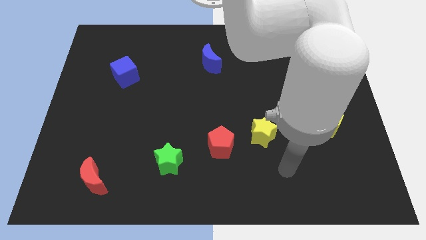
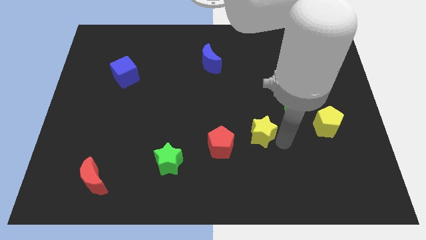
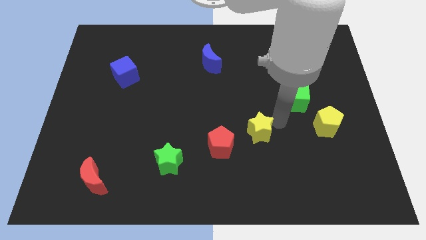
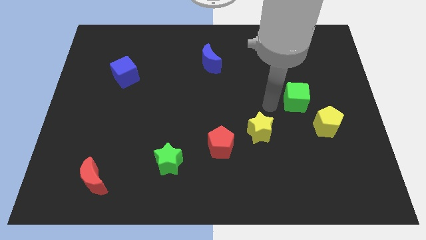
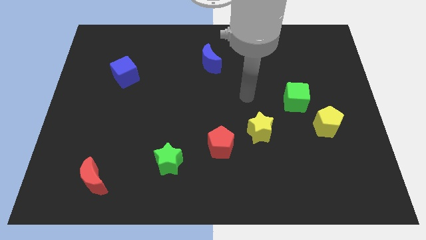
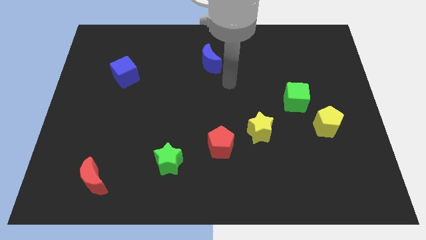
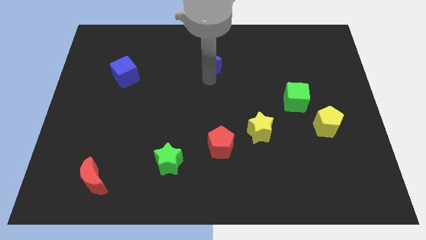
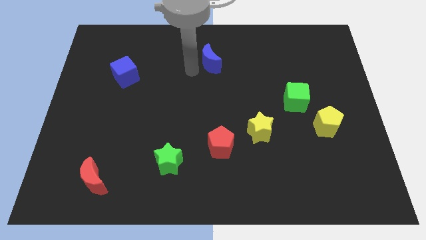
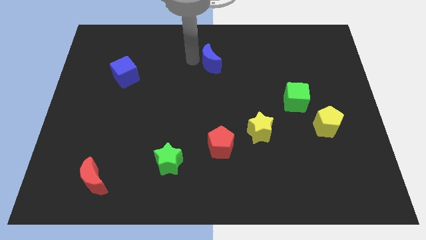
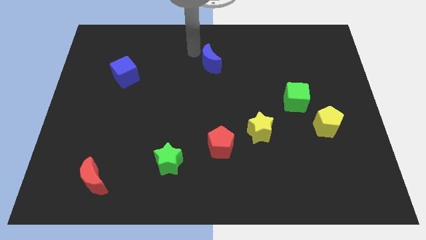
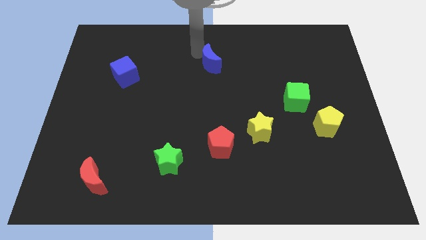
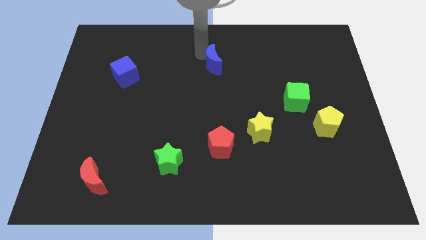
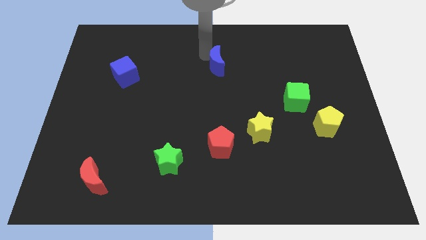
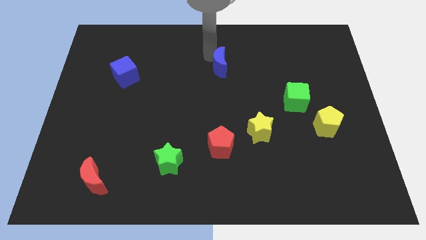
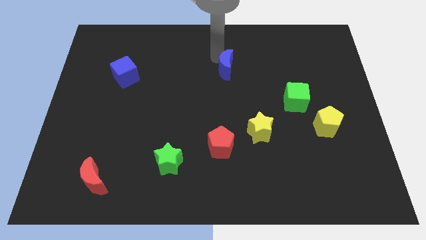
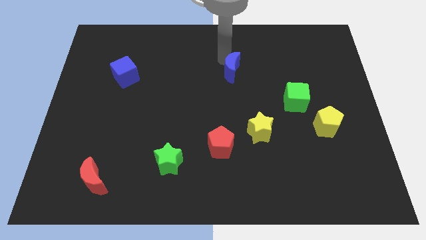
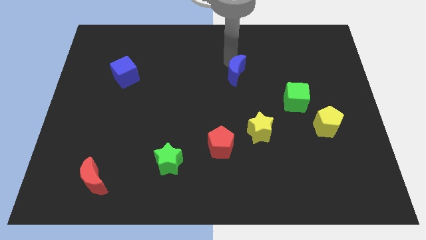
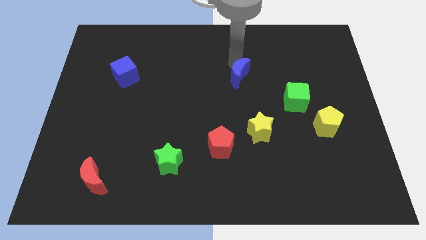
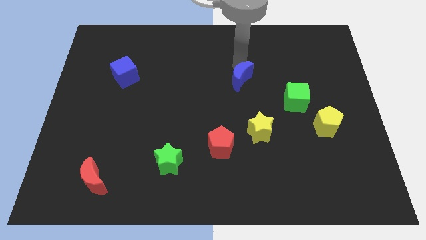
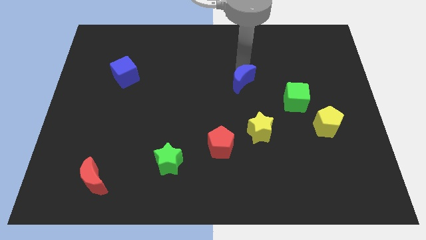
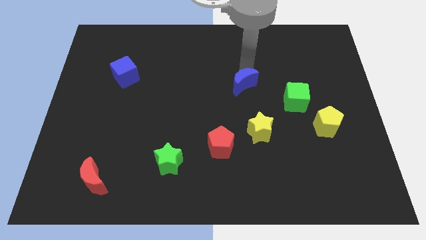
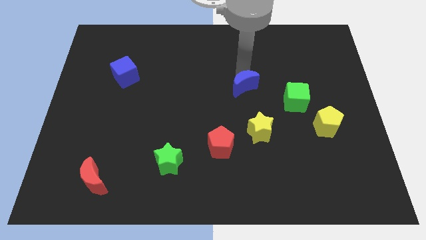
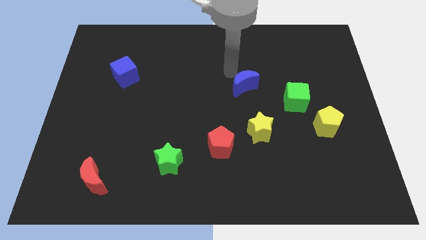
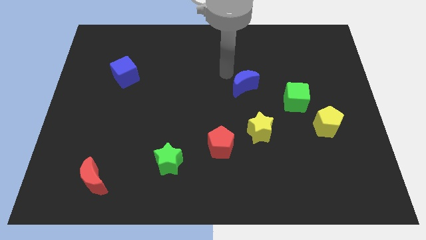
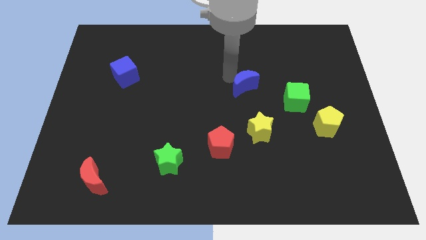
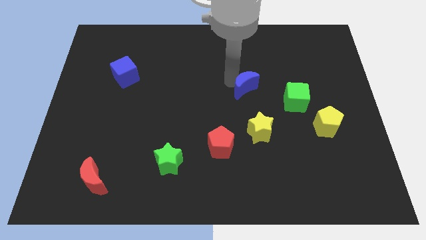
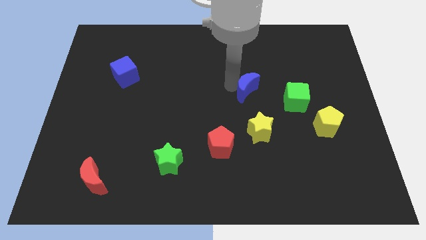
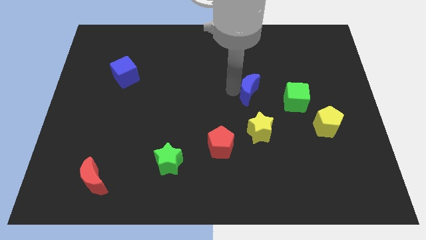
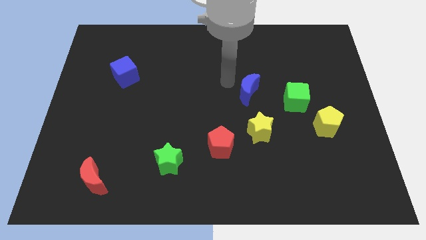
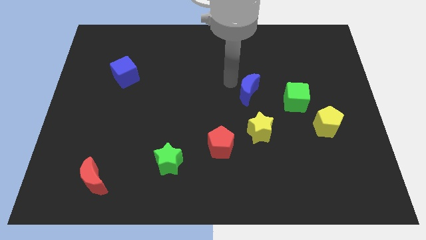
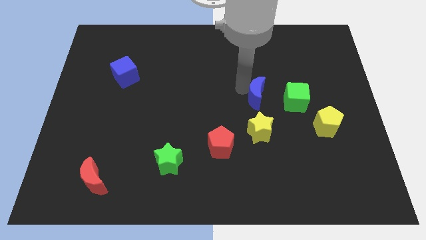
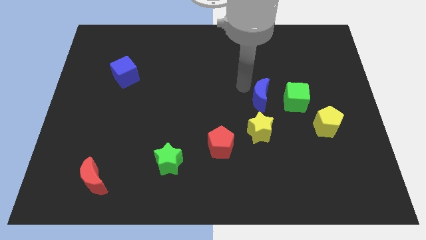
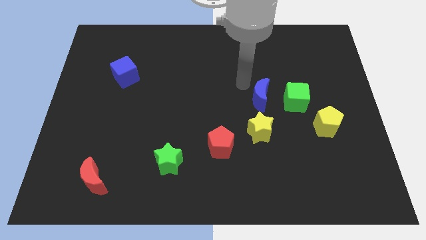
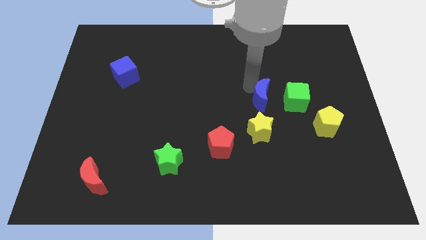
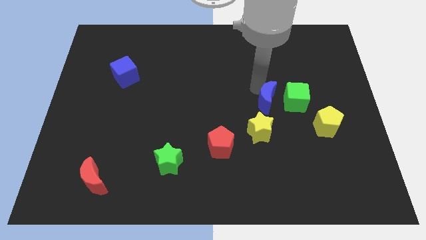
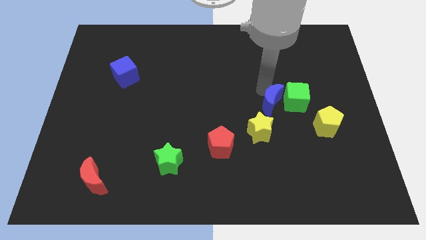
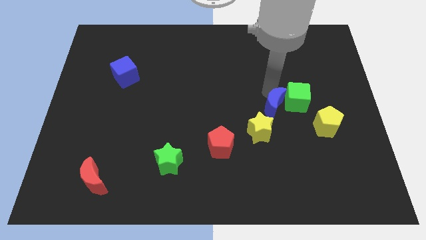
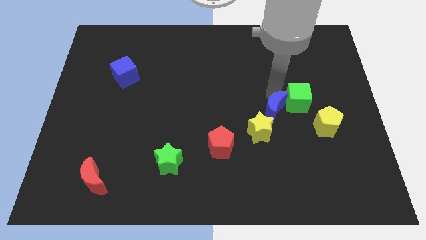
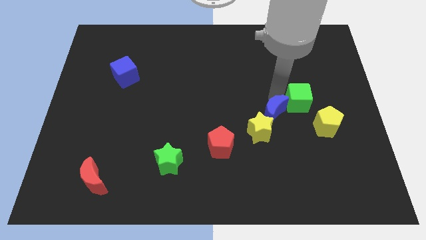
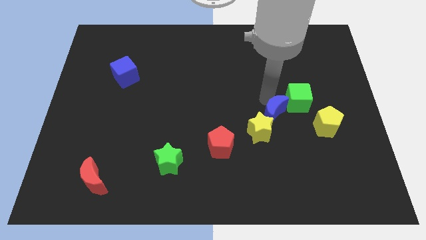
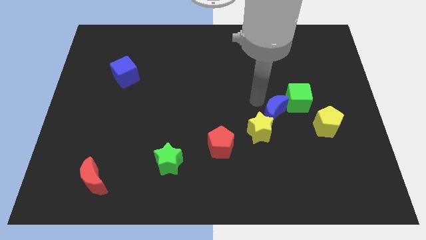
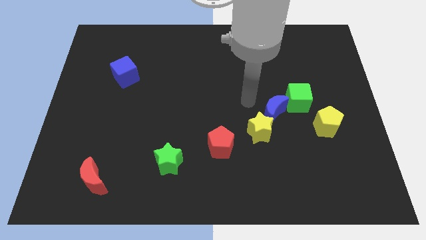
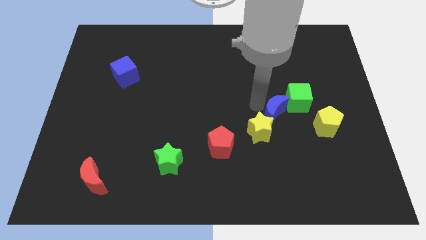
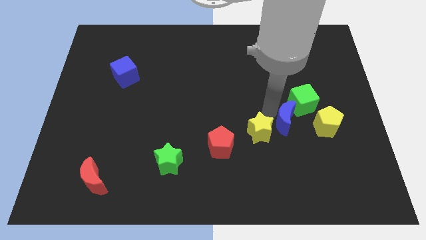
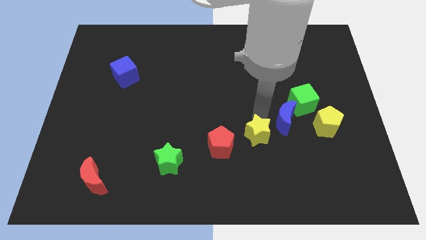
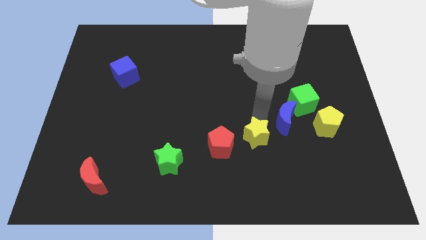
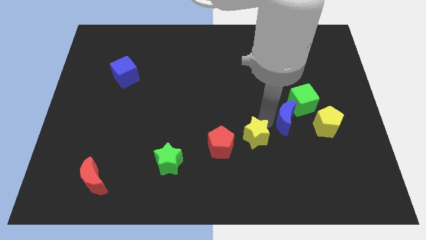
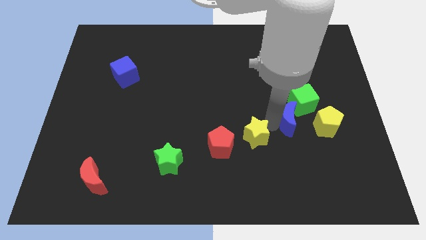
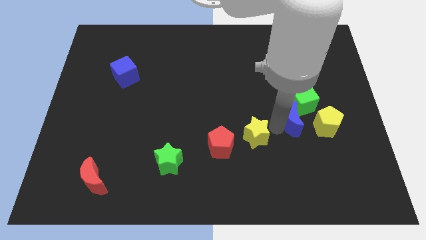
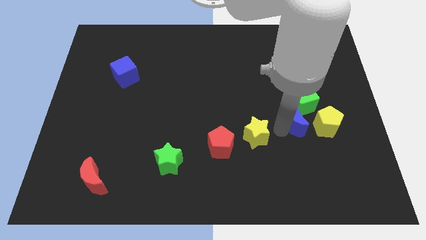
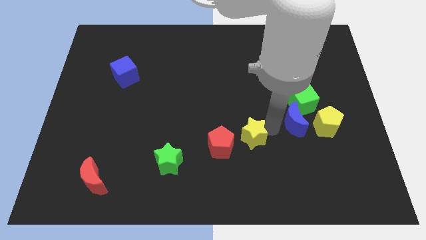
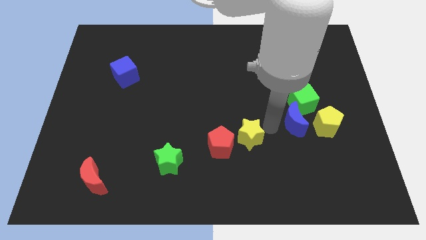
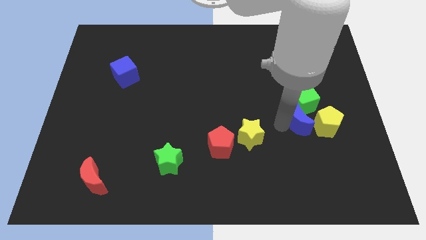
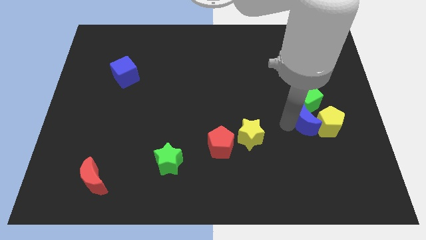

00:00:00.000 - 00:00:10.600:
slide the blue moon to the yellow pentagon

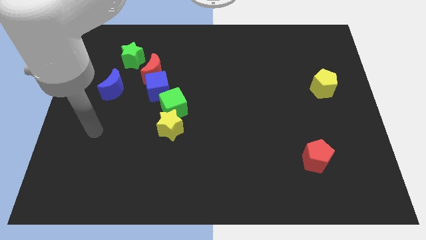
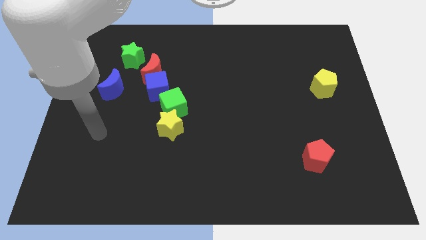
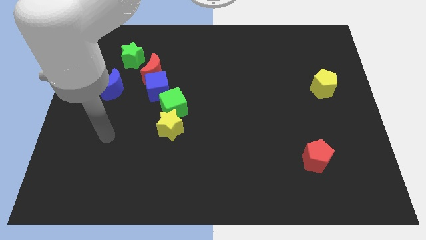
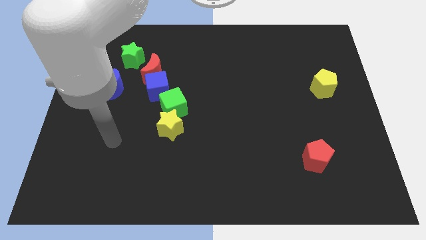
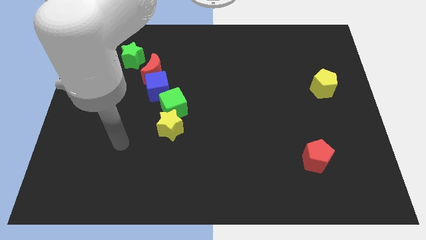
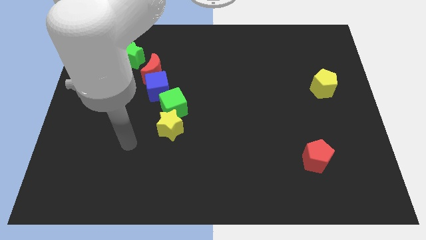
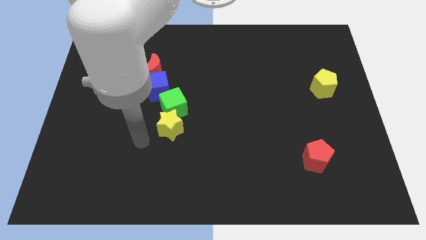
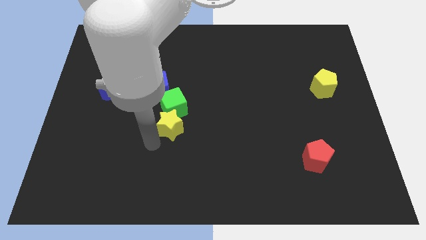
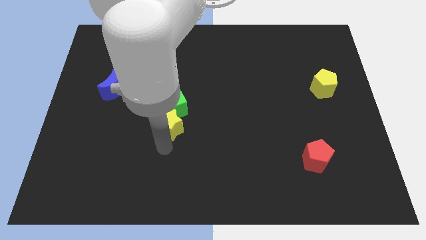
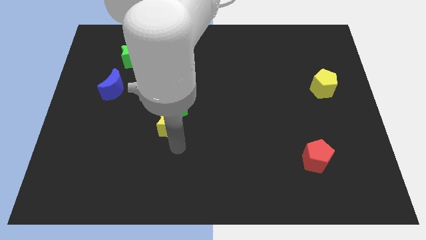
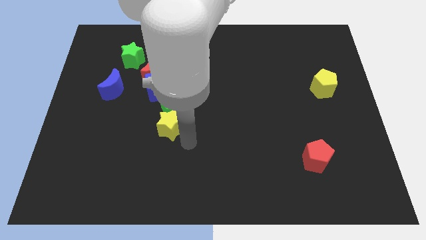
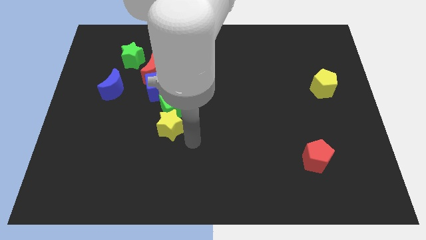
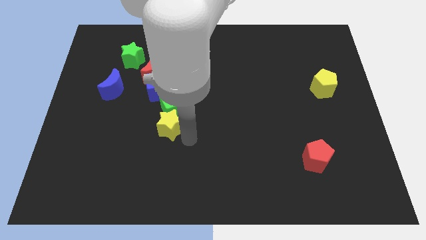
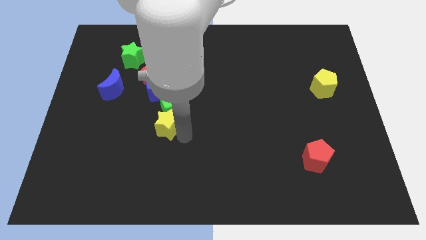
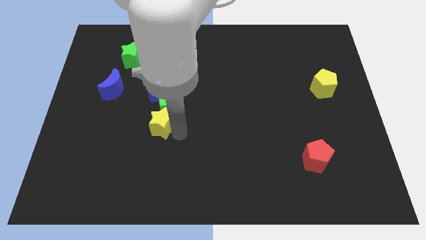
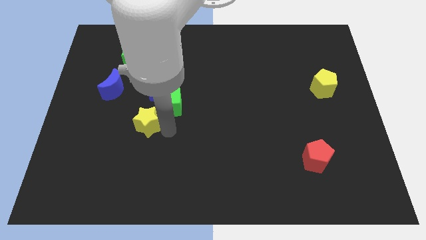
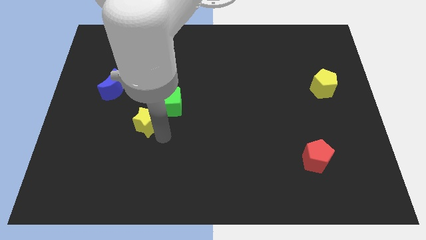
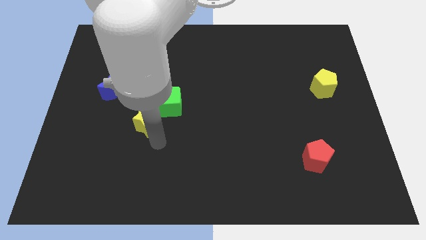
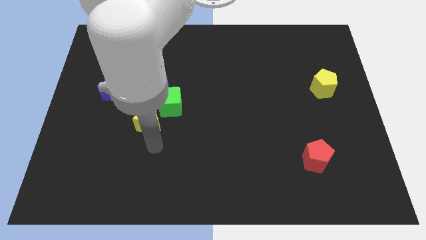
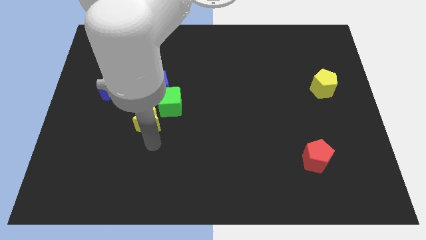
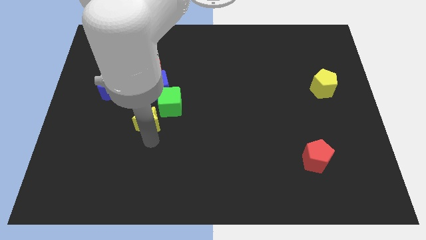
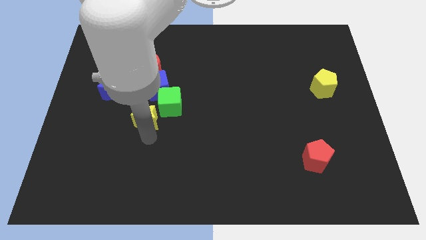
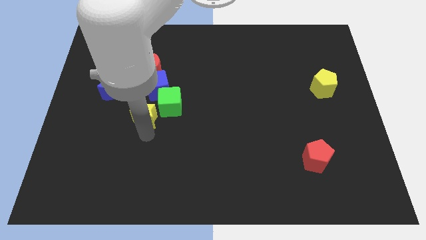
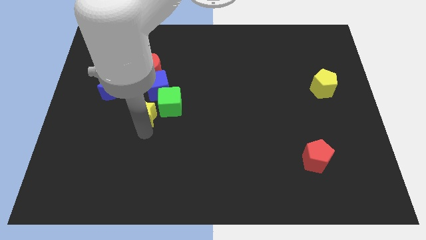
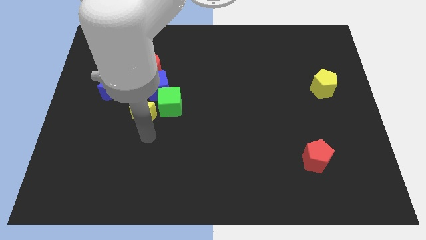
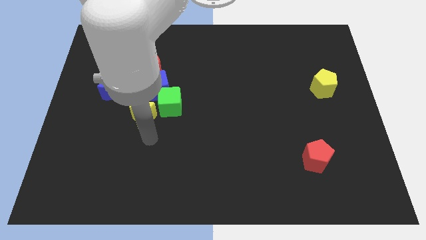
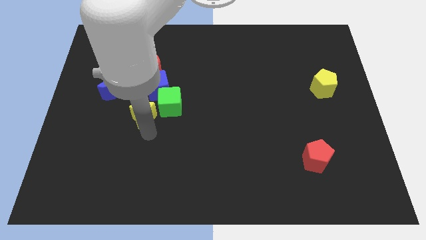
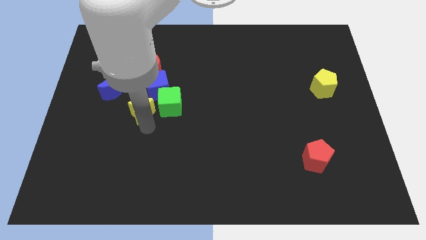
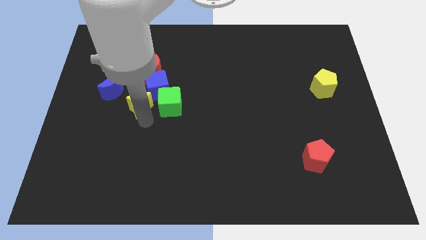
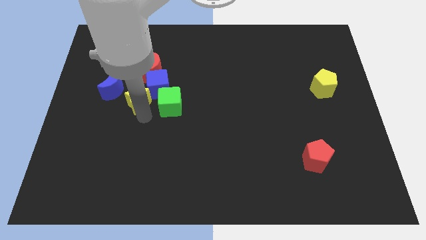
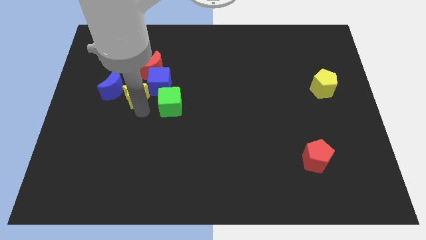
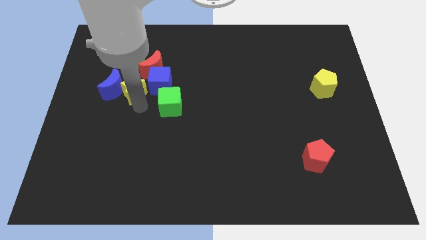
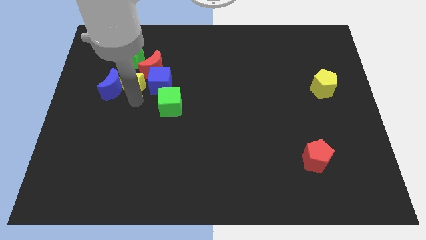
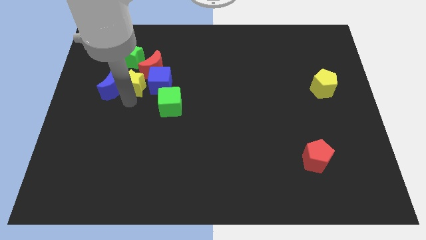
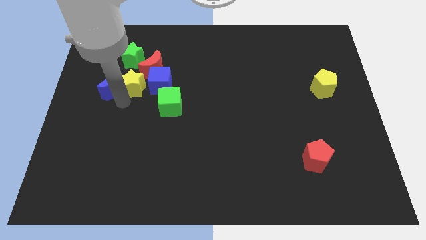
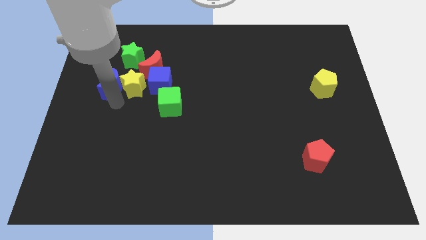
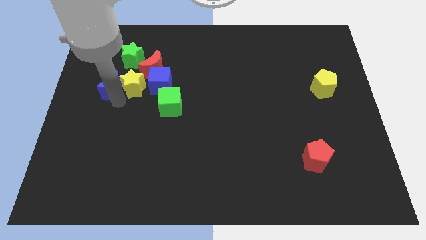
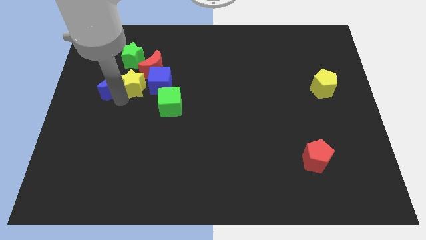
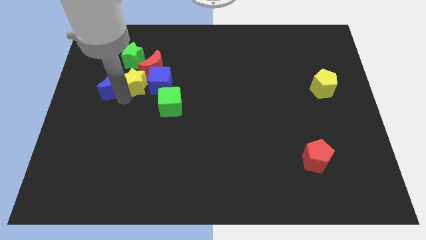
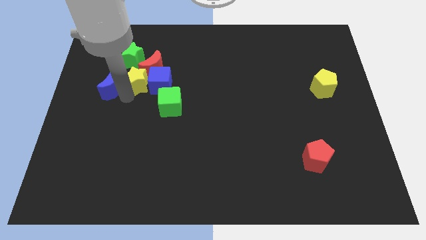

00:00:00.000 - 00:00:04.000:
slide the yellow star next to the red moon
